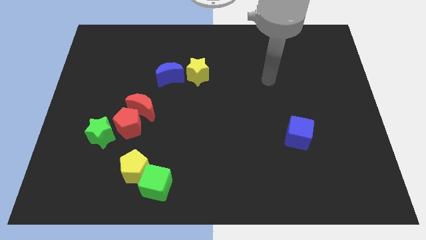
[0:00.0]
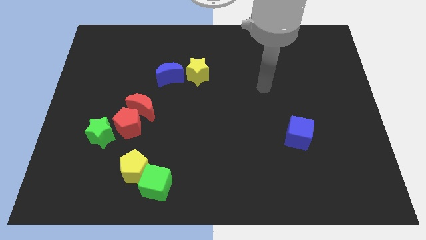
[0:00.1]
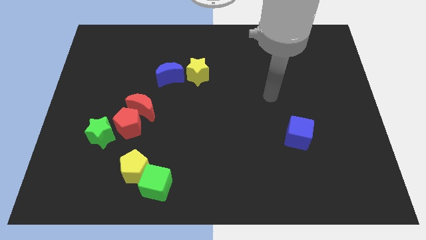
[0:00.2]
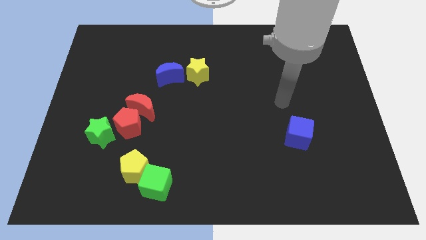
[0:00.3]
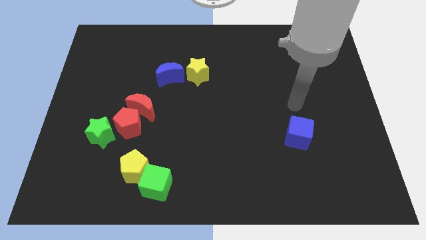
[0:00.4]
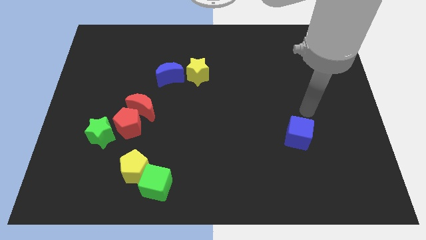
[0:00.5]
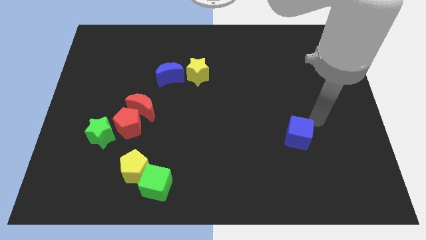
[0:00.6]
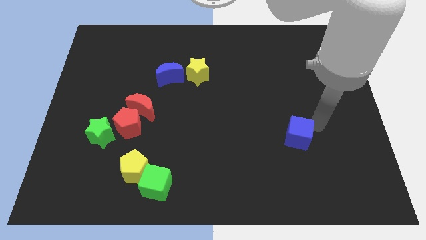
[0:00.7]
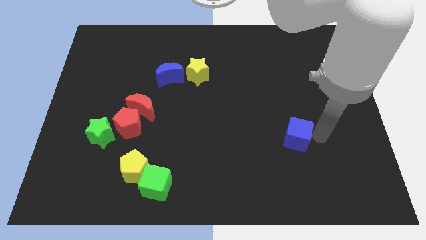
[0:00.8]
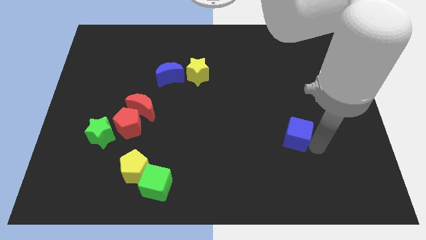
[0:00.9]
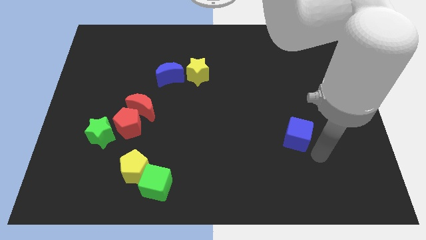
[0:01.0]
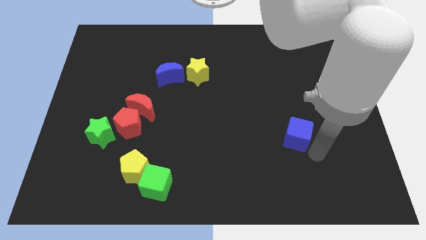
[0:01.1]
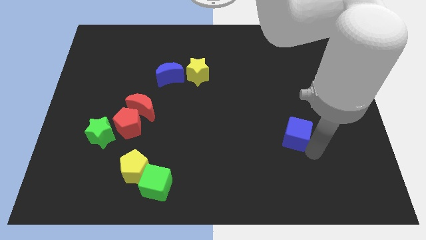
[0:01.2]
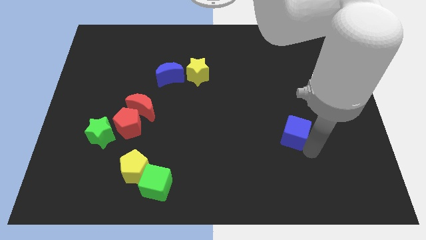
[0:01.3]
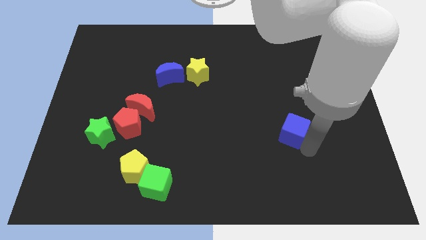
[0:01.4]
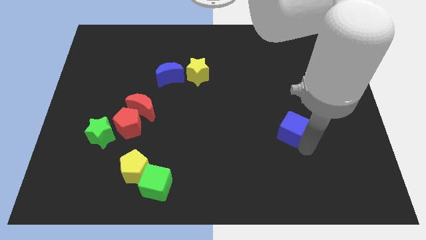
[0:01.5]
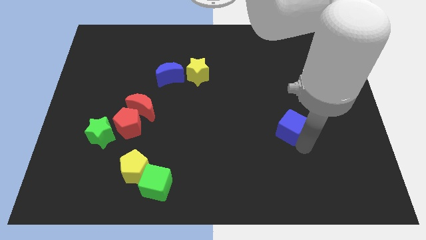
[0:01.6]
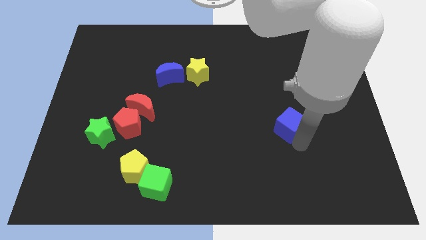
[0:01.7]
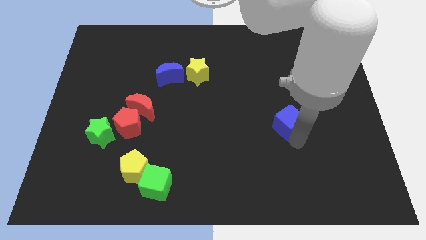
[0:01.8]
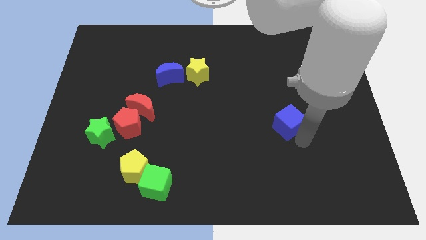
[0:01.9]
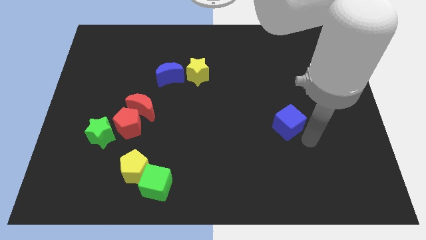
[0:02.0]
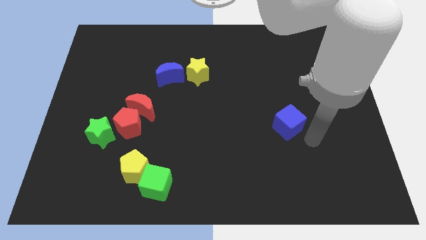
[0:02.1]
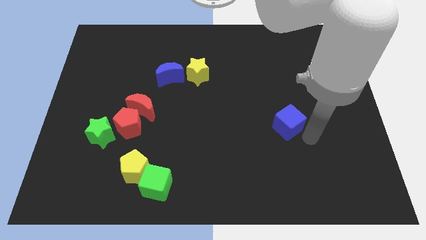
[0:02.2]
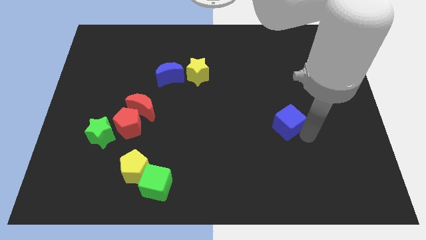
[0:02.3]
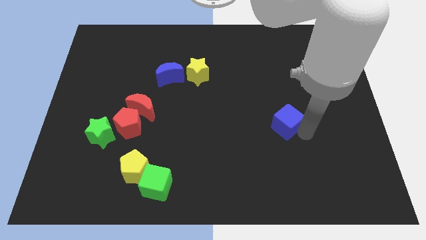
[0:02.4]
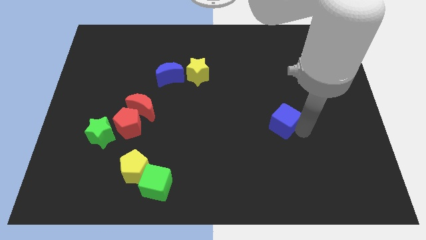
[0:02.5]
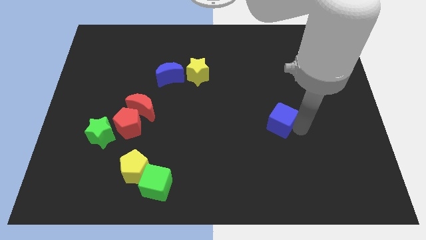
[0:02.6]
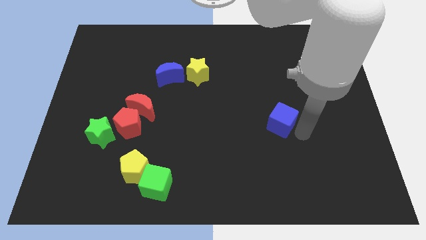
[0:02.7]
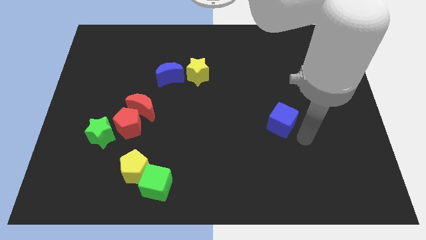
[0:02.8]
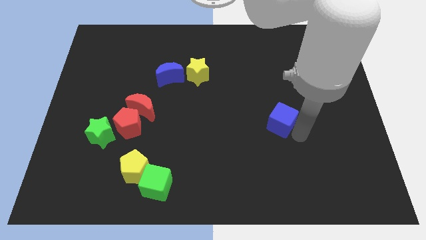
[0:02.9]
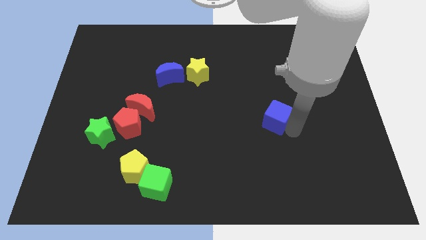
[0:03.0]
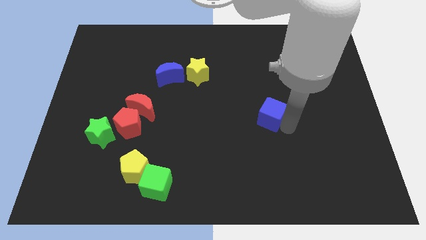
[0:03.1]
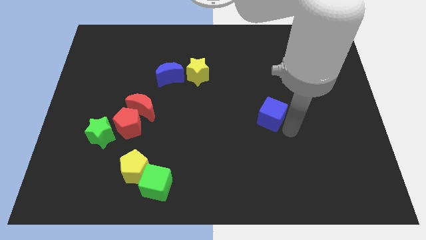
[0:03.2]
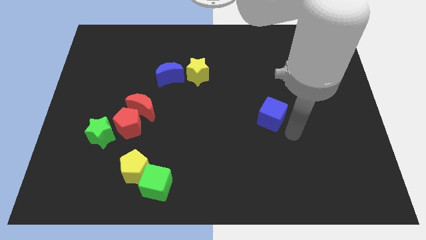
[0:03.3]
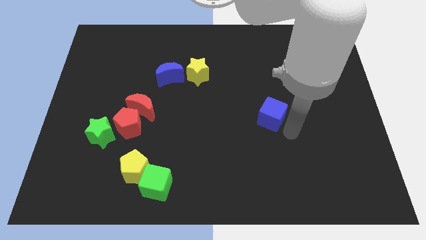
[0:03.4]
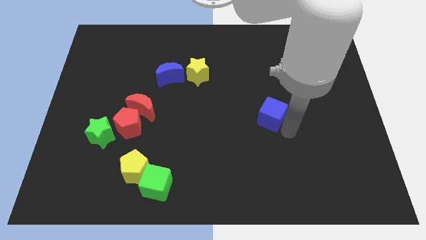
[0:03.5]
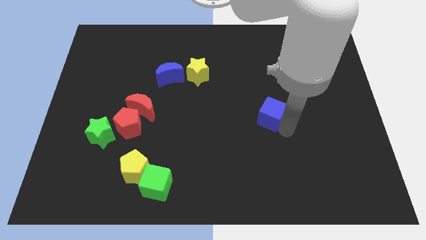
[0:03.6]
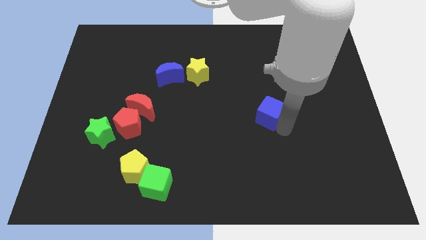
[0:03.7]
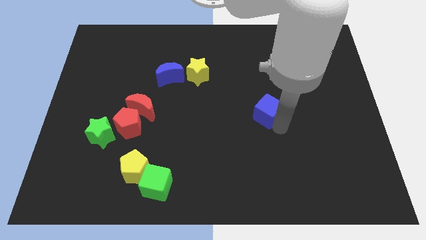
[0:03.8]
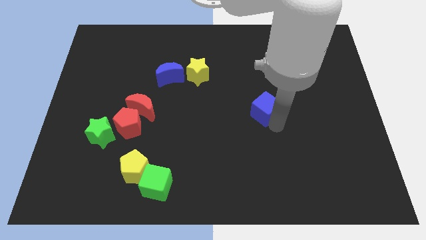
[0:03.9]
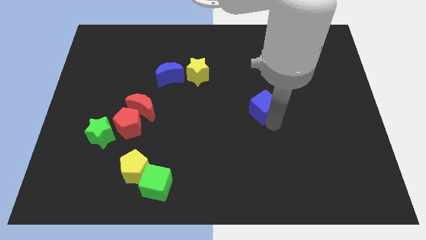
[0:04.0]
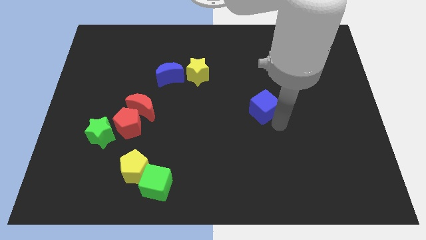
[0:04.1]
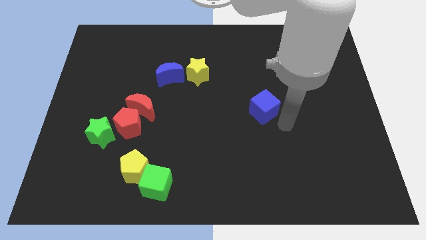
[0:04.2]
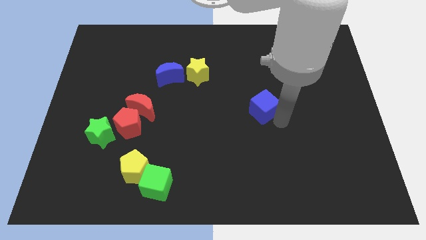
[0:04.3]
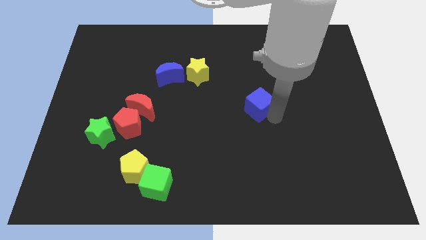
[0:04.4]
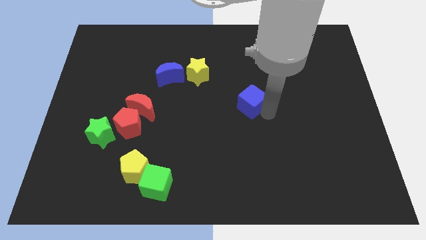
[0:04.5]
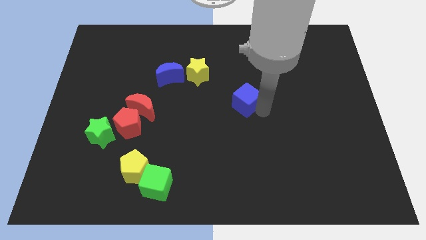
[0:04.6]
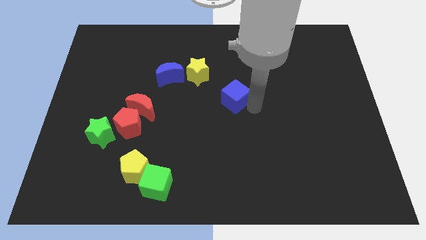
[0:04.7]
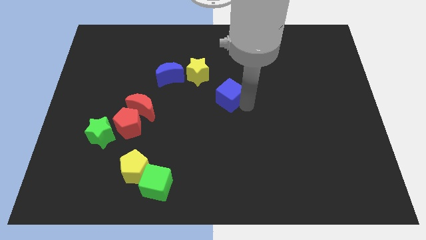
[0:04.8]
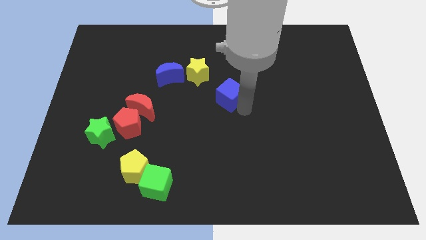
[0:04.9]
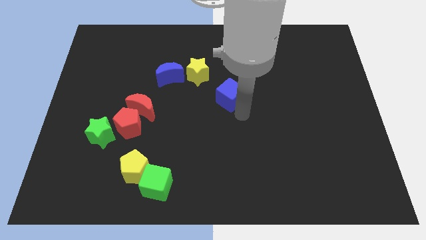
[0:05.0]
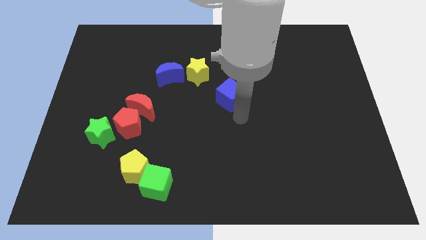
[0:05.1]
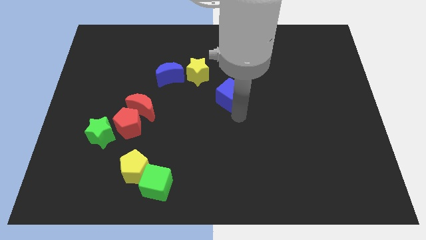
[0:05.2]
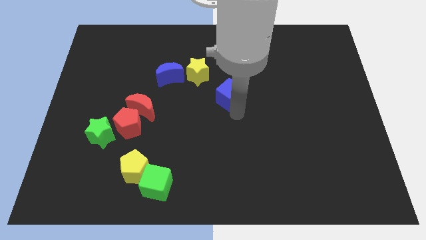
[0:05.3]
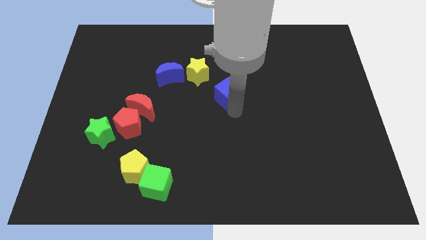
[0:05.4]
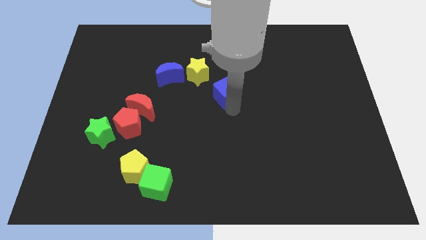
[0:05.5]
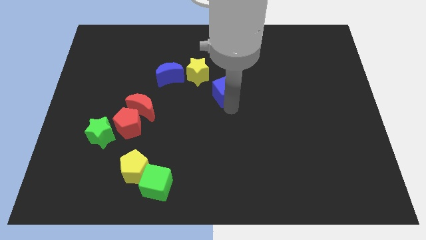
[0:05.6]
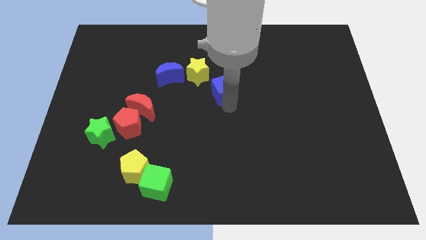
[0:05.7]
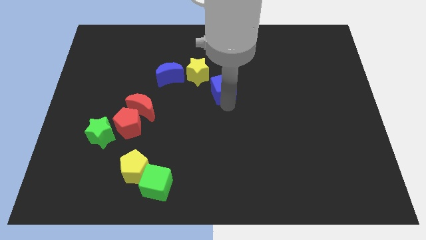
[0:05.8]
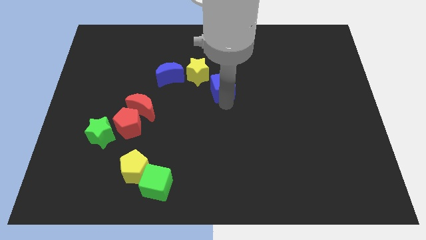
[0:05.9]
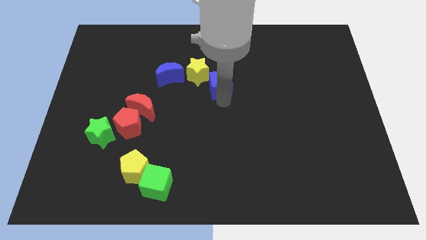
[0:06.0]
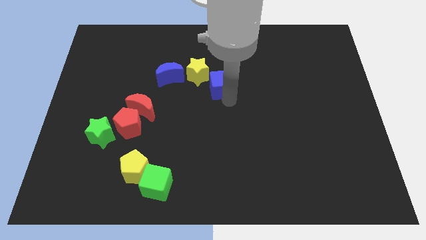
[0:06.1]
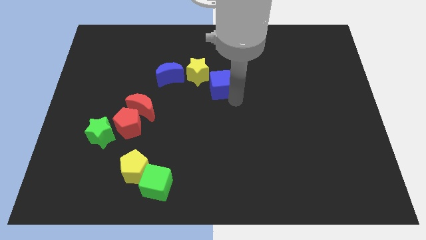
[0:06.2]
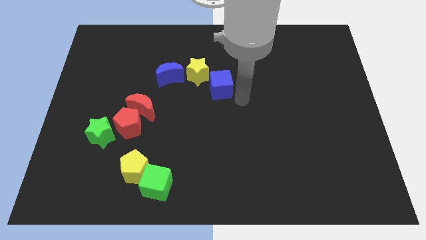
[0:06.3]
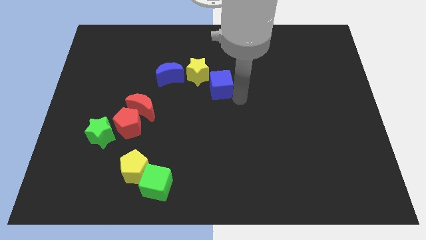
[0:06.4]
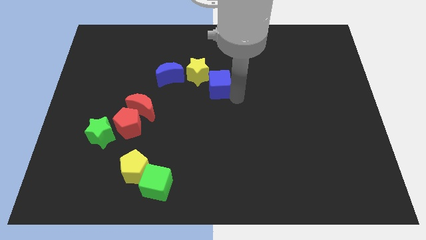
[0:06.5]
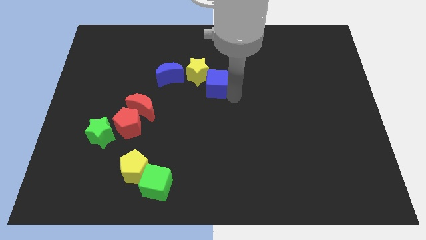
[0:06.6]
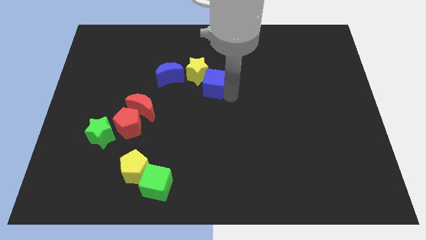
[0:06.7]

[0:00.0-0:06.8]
put the blue cube towards the yellow star

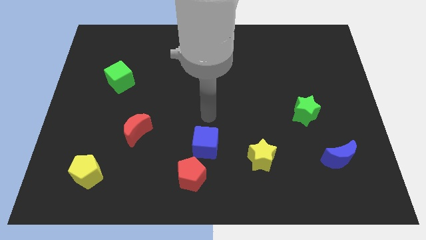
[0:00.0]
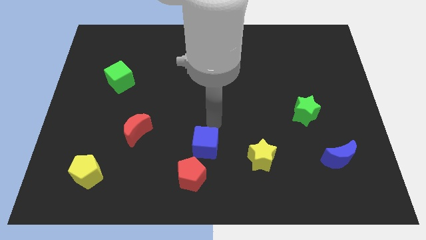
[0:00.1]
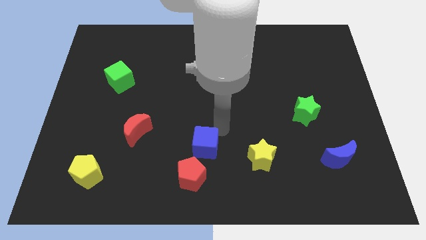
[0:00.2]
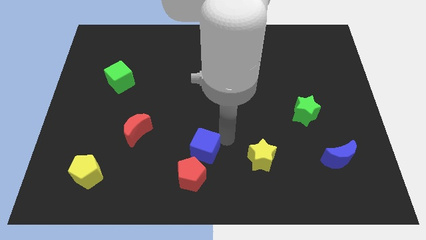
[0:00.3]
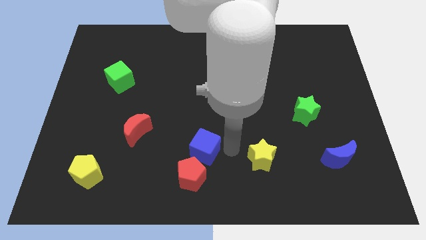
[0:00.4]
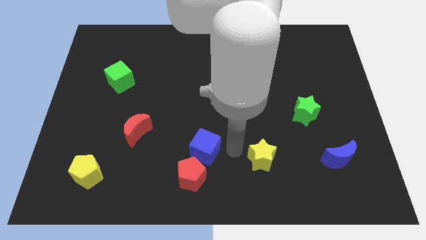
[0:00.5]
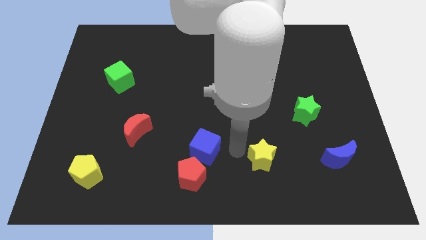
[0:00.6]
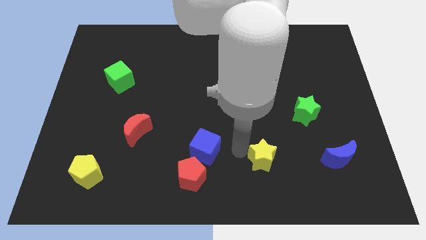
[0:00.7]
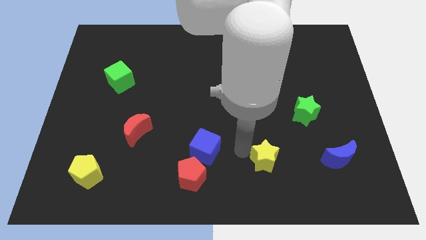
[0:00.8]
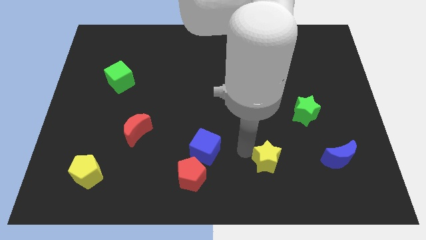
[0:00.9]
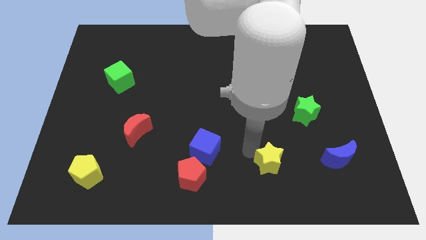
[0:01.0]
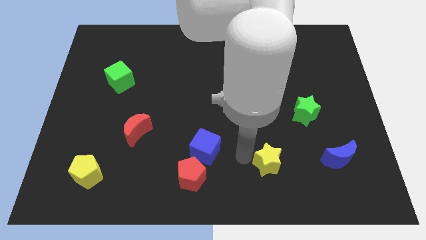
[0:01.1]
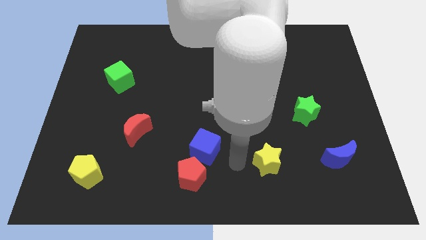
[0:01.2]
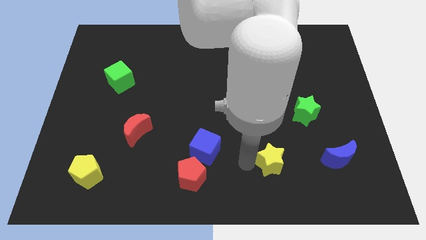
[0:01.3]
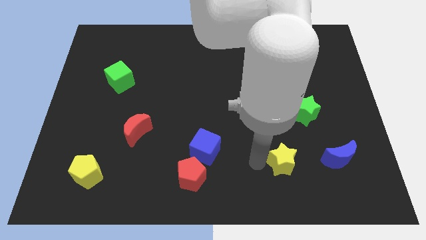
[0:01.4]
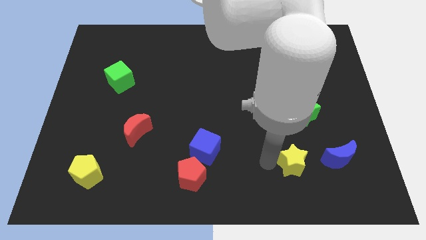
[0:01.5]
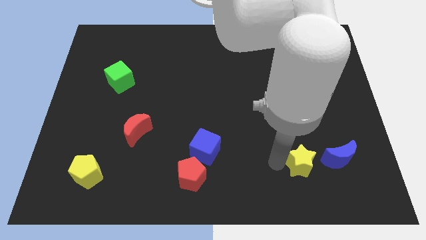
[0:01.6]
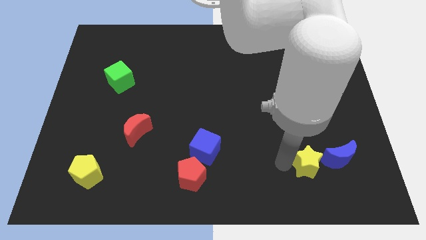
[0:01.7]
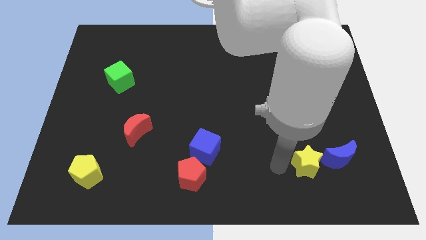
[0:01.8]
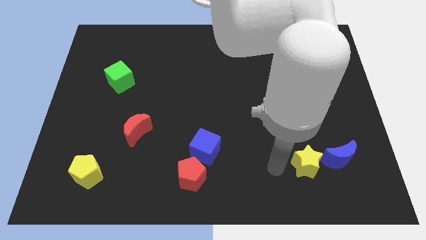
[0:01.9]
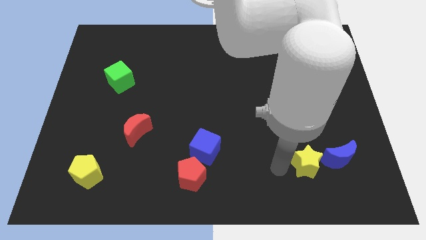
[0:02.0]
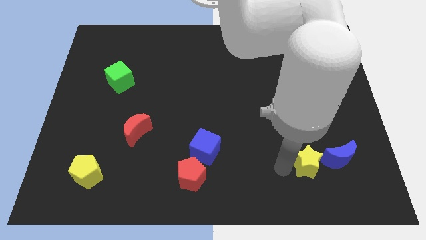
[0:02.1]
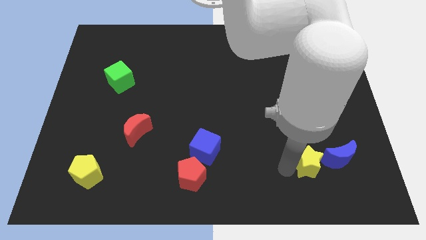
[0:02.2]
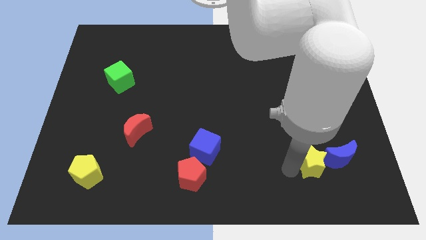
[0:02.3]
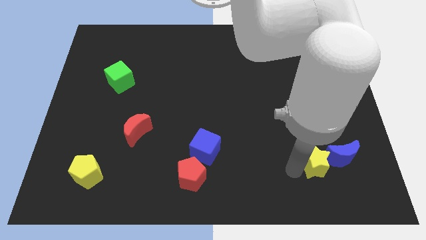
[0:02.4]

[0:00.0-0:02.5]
move the yellow star next to the blue moon
